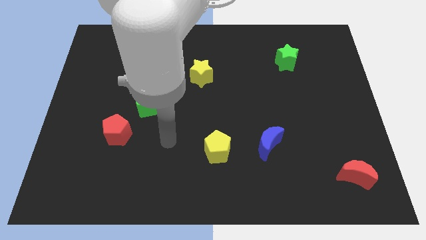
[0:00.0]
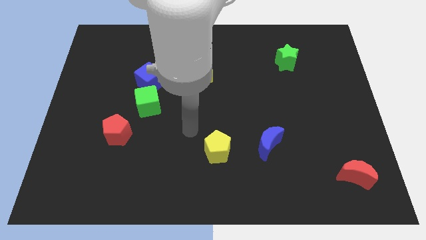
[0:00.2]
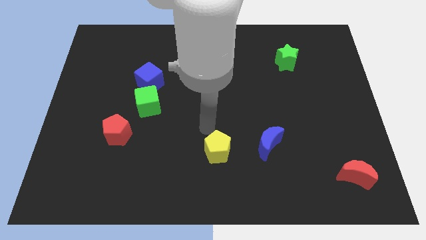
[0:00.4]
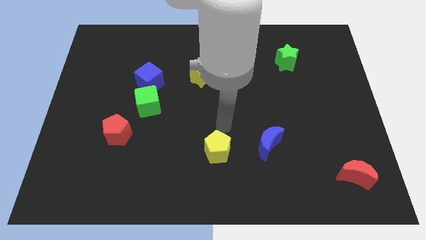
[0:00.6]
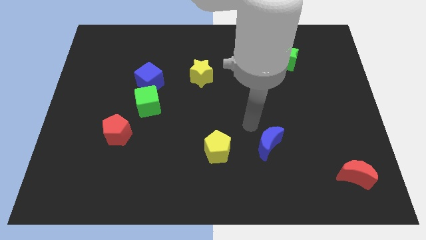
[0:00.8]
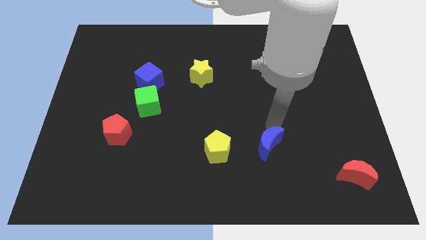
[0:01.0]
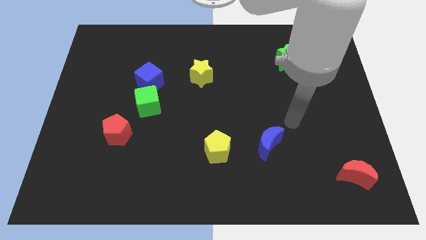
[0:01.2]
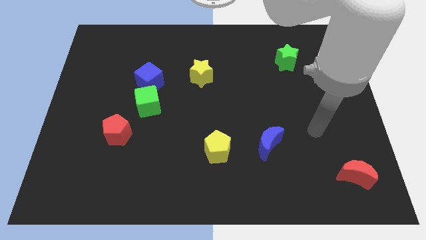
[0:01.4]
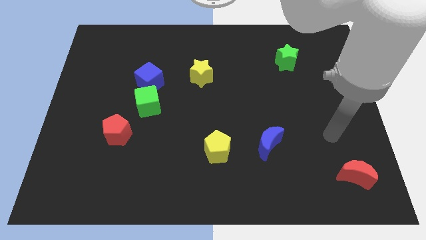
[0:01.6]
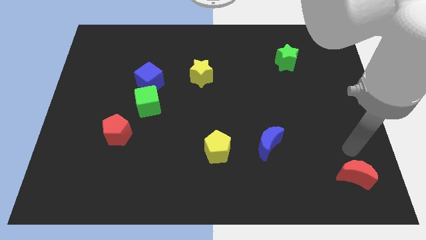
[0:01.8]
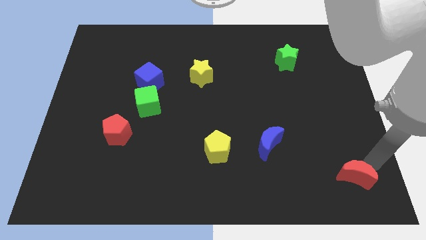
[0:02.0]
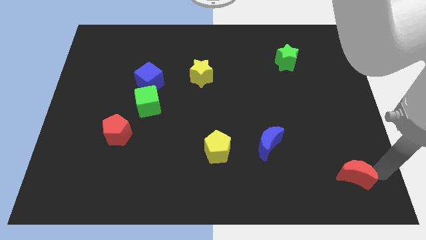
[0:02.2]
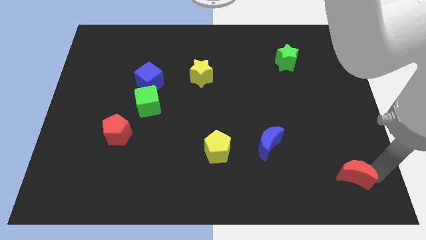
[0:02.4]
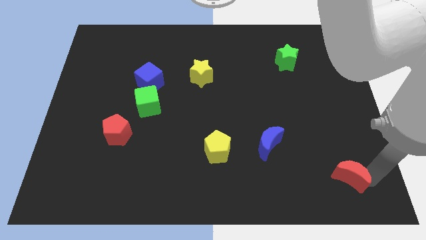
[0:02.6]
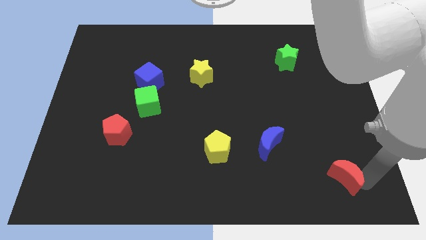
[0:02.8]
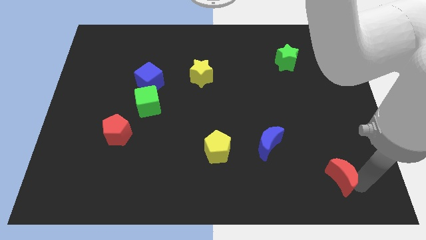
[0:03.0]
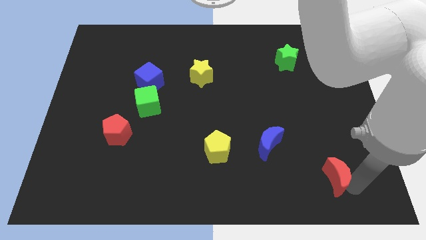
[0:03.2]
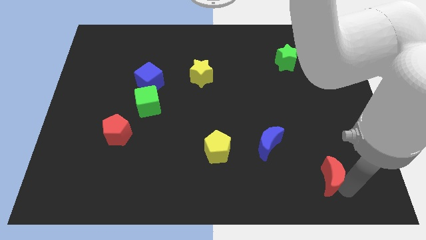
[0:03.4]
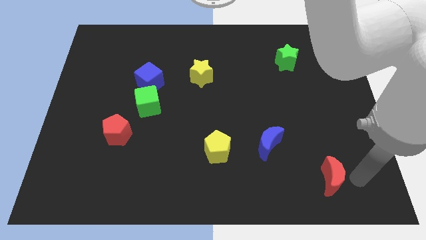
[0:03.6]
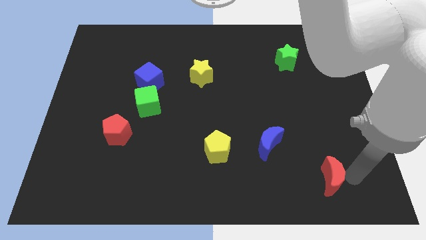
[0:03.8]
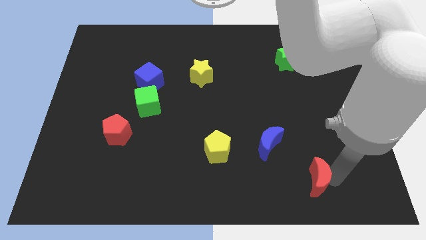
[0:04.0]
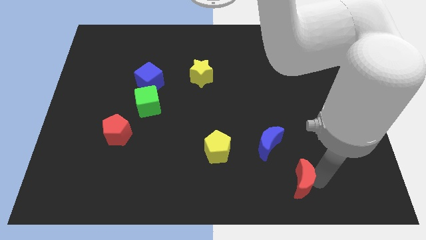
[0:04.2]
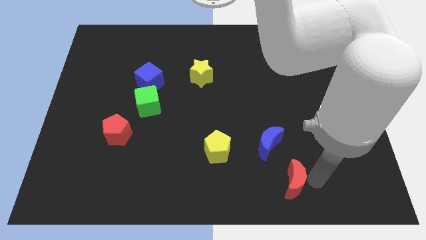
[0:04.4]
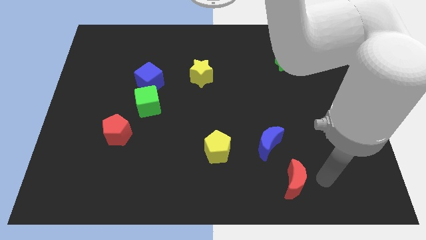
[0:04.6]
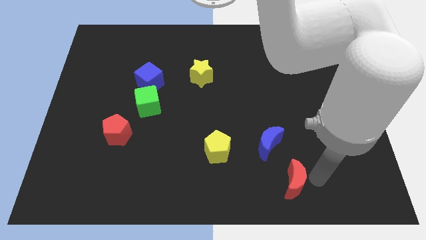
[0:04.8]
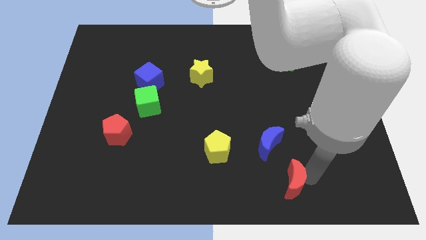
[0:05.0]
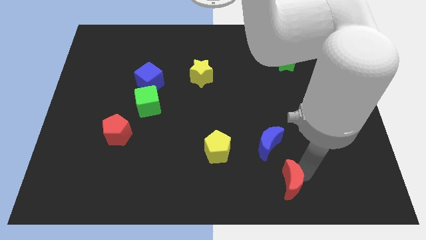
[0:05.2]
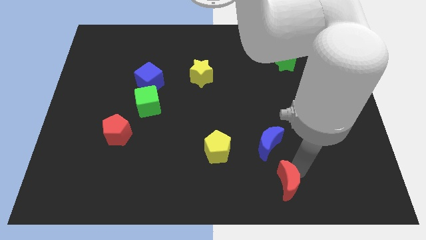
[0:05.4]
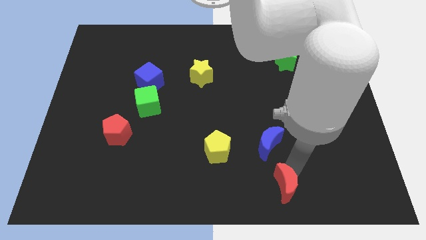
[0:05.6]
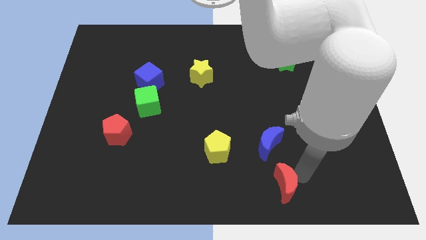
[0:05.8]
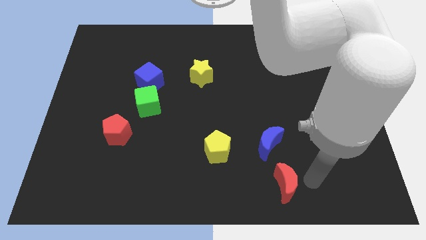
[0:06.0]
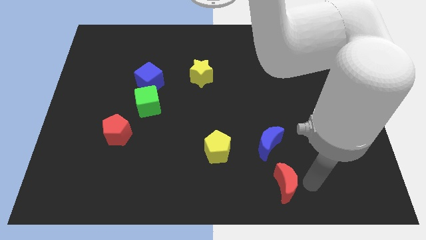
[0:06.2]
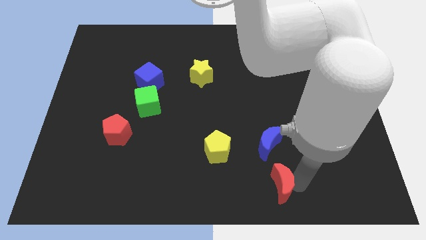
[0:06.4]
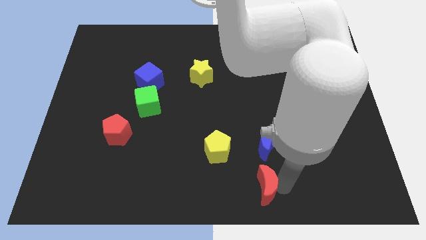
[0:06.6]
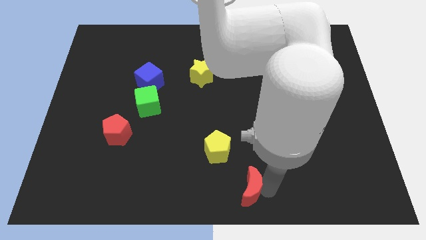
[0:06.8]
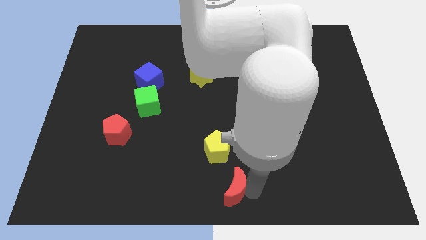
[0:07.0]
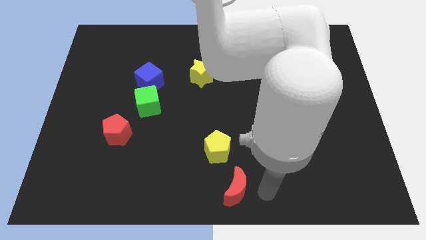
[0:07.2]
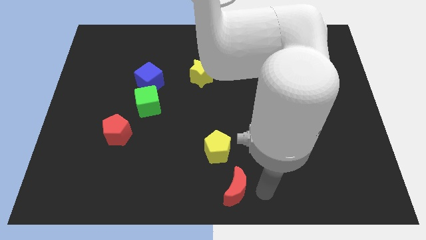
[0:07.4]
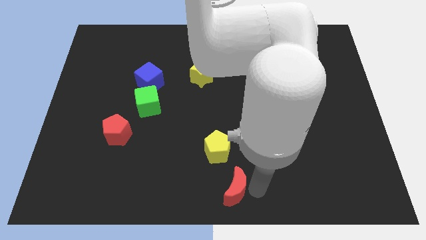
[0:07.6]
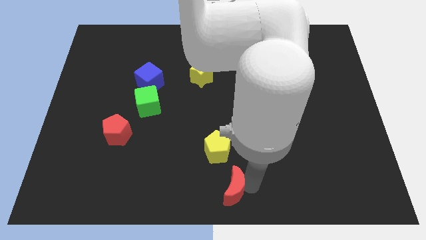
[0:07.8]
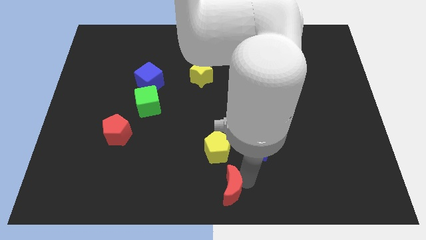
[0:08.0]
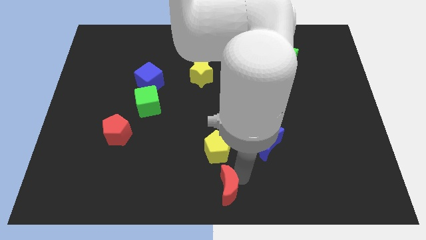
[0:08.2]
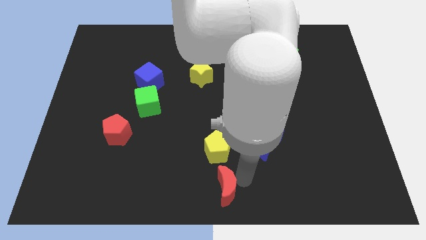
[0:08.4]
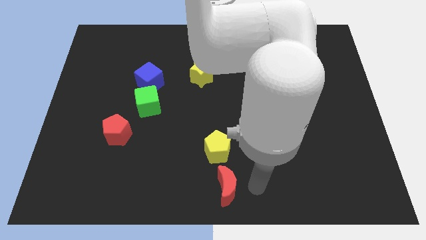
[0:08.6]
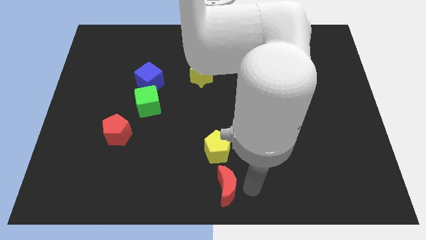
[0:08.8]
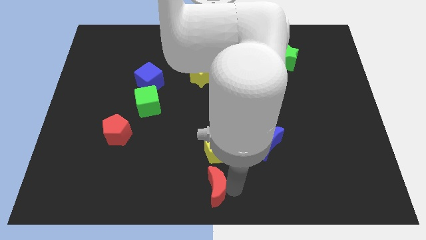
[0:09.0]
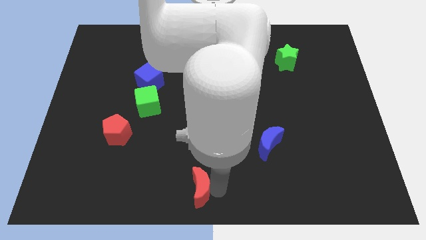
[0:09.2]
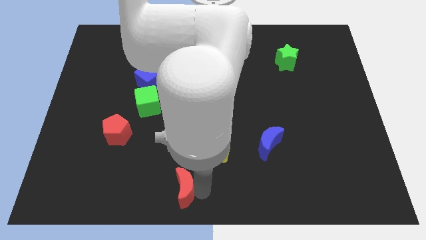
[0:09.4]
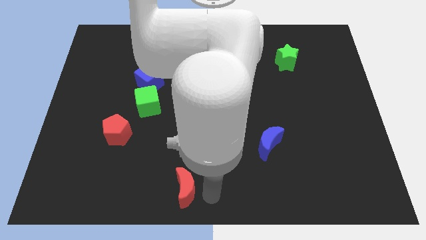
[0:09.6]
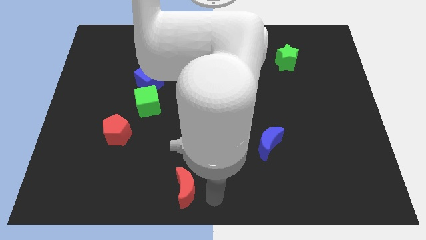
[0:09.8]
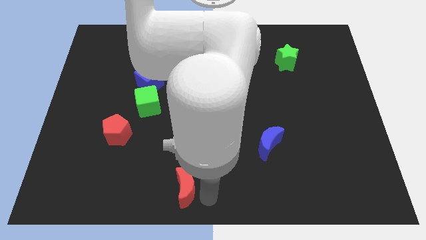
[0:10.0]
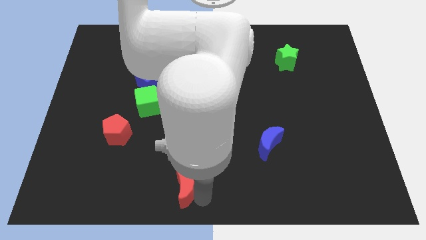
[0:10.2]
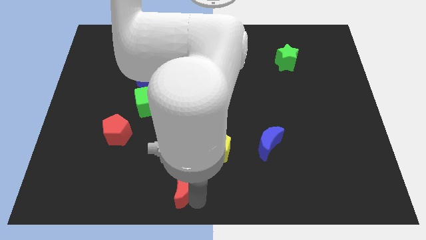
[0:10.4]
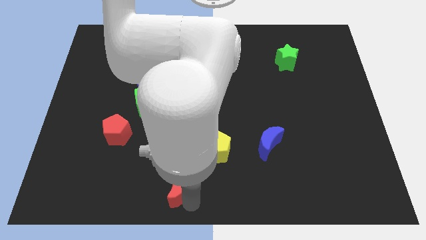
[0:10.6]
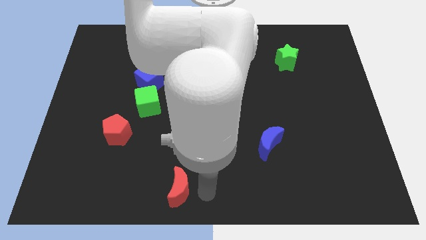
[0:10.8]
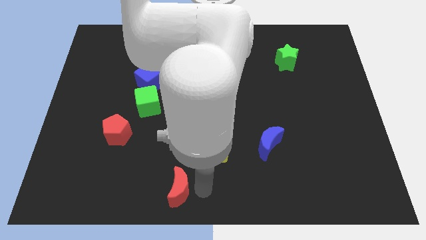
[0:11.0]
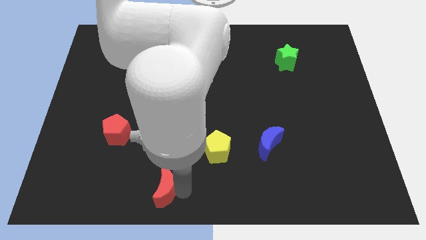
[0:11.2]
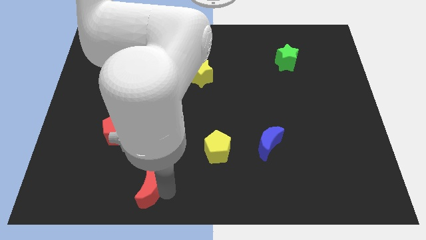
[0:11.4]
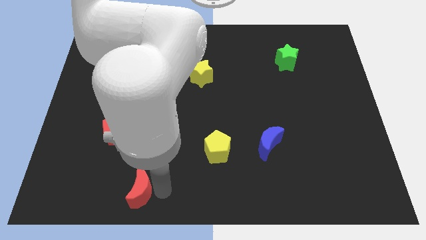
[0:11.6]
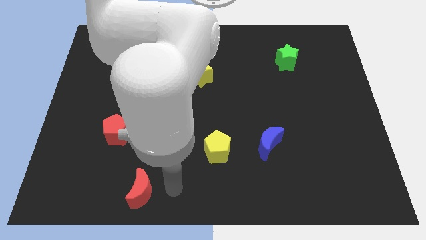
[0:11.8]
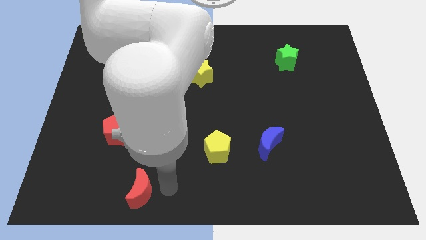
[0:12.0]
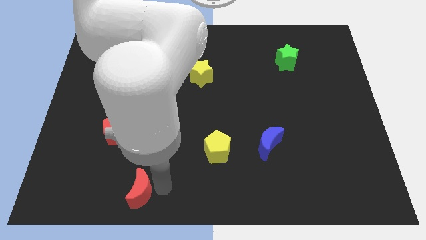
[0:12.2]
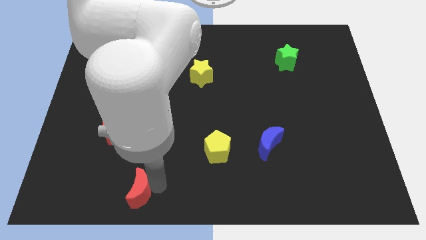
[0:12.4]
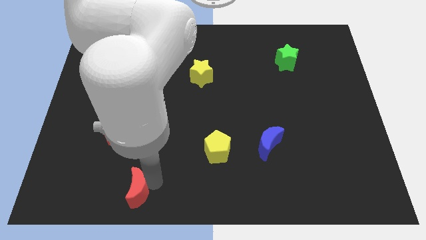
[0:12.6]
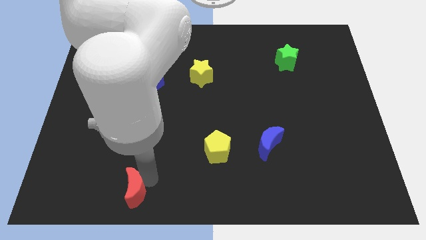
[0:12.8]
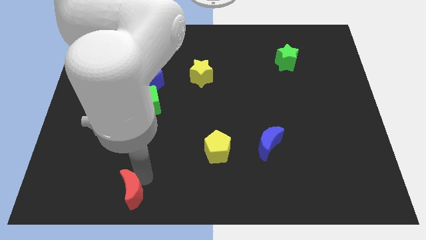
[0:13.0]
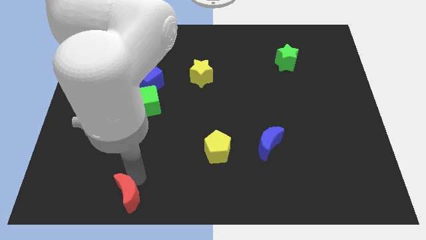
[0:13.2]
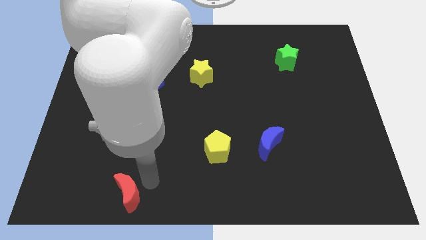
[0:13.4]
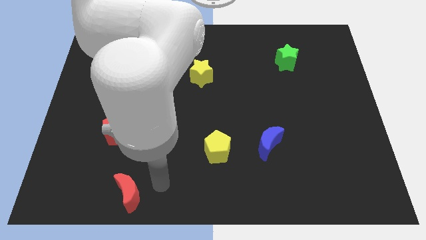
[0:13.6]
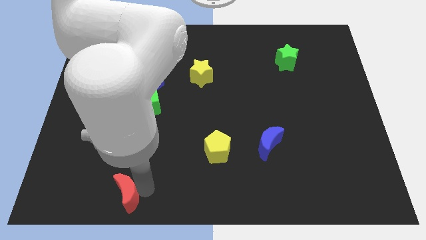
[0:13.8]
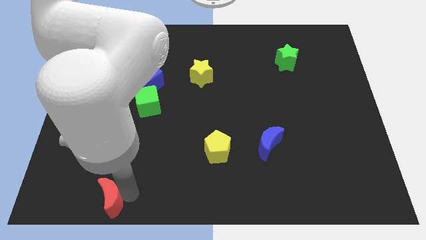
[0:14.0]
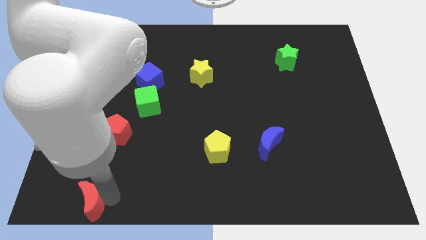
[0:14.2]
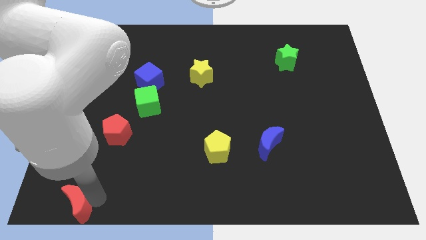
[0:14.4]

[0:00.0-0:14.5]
put the red moon to the bottom left of the board
